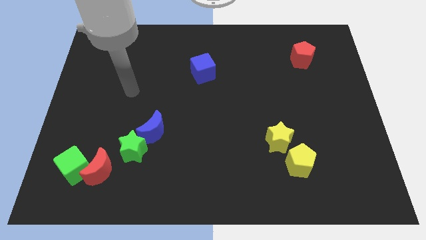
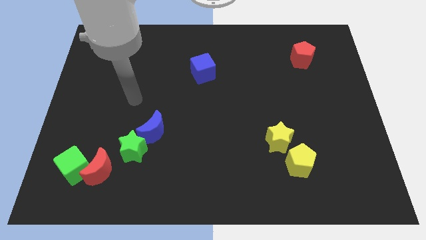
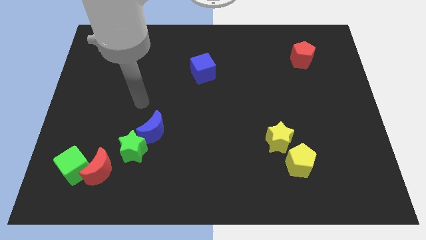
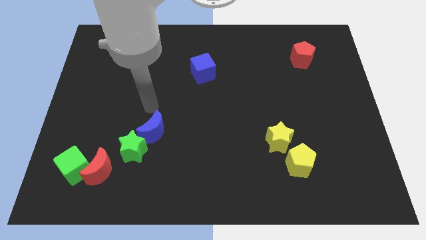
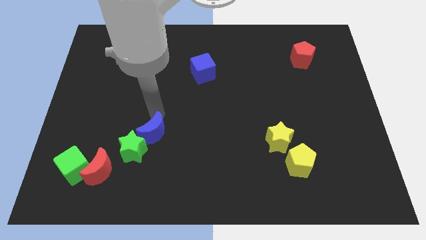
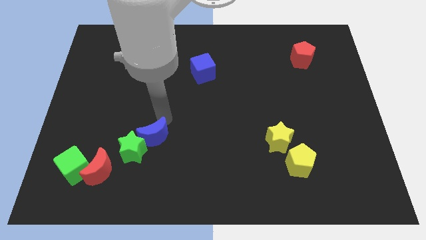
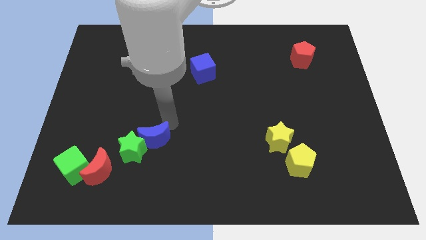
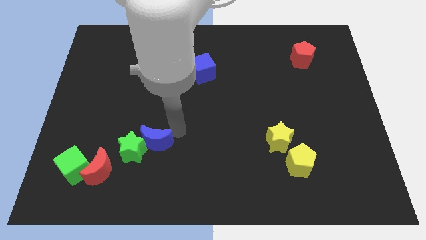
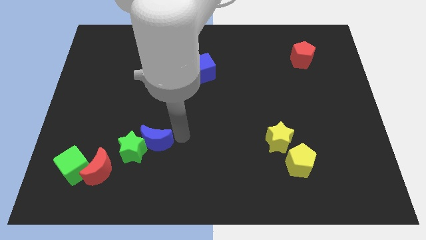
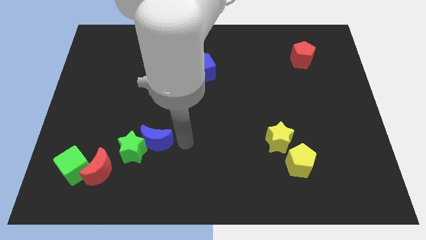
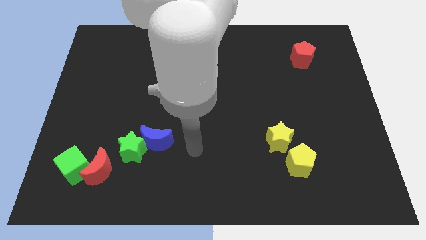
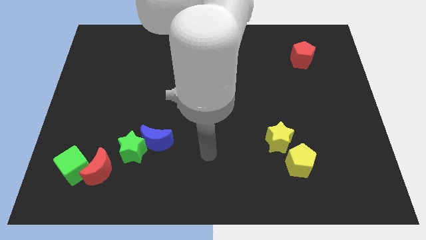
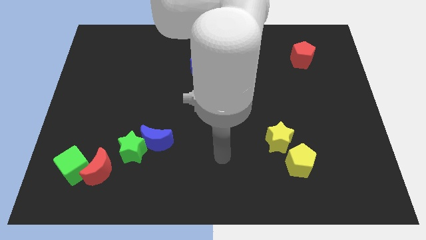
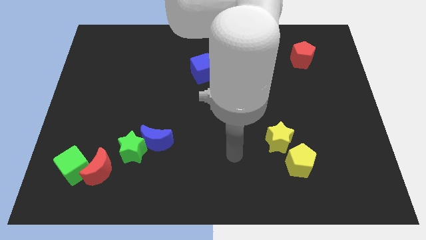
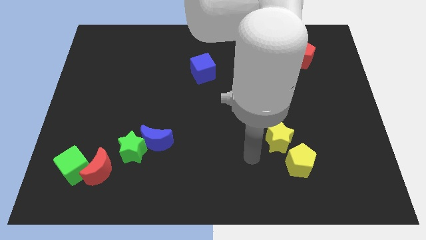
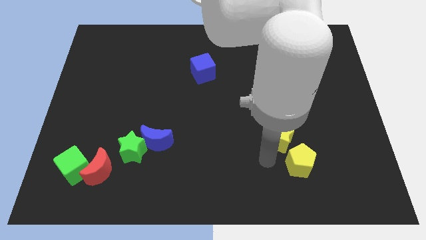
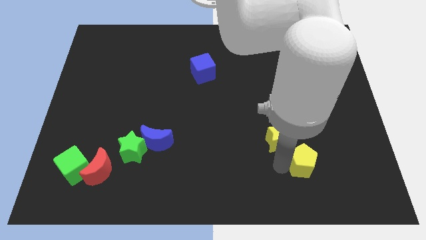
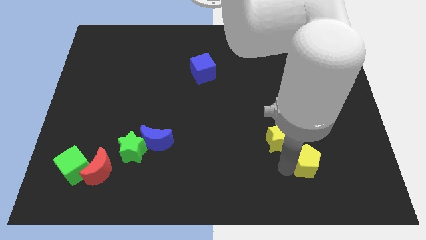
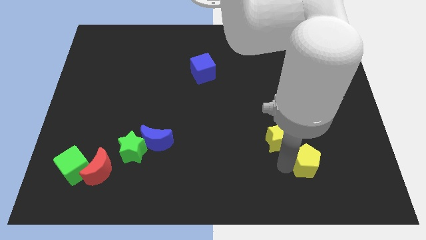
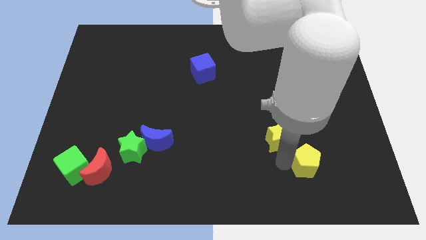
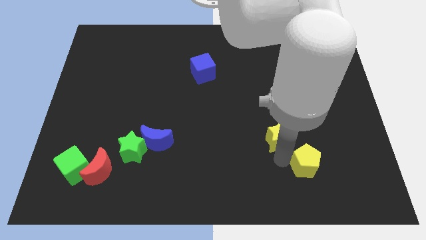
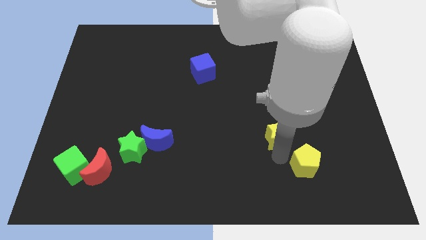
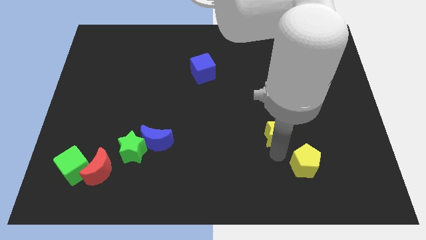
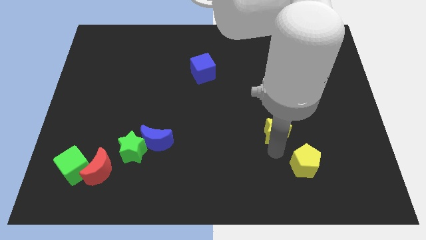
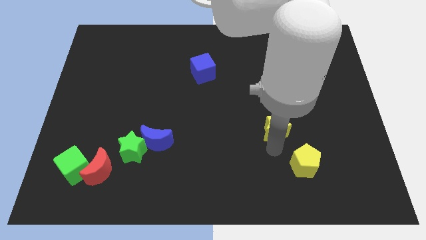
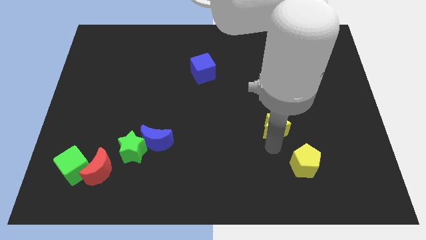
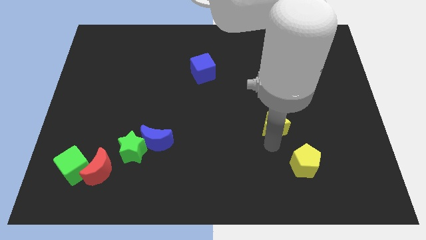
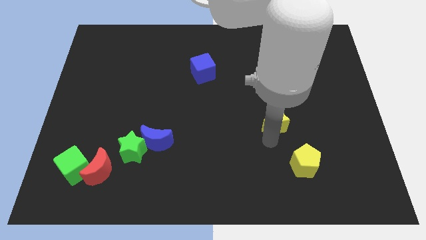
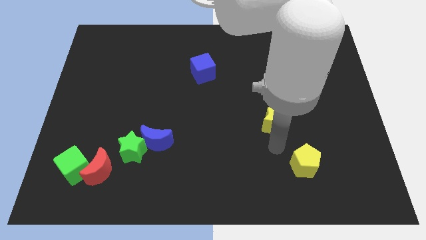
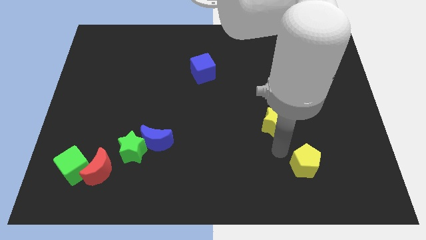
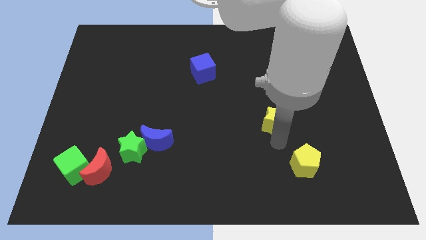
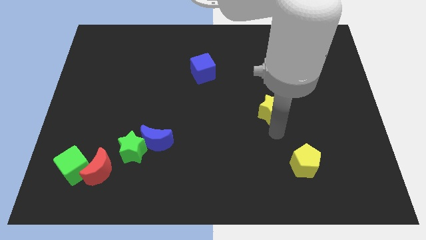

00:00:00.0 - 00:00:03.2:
slightly slide the yellow star upwards

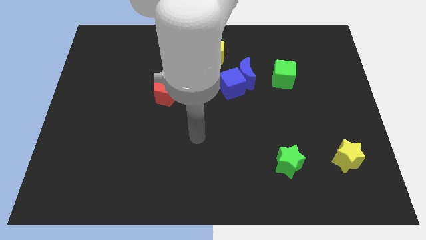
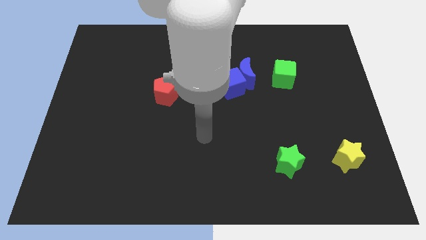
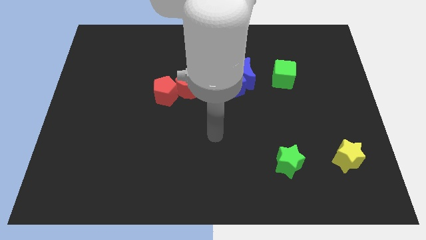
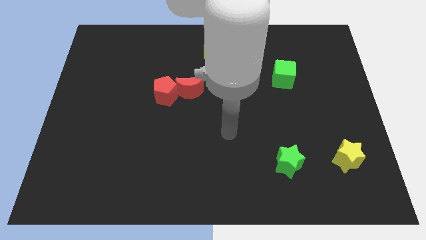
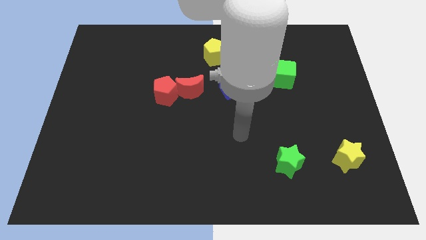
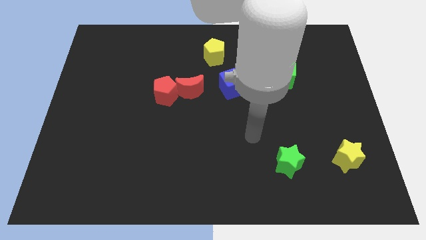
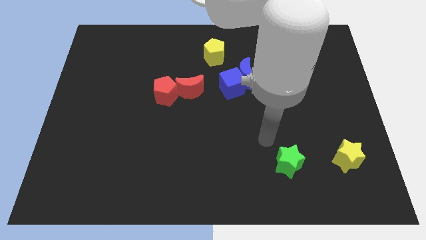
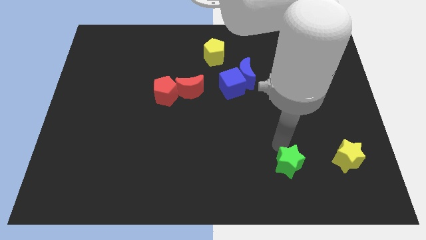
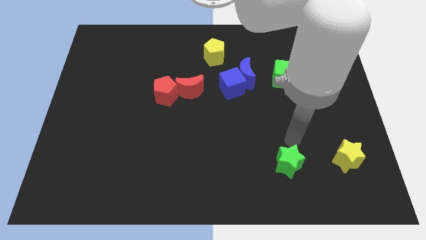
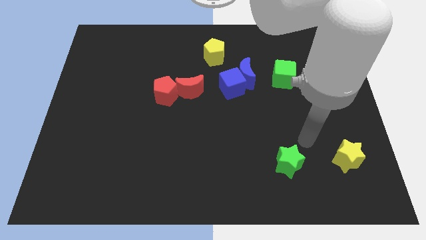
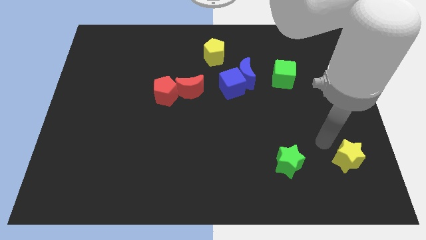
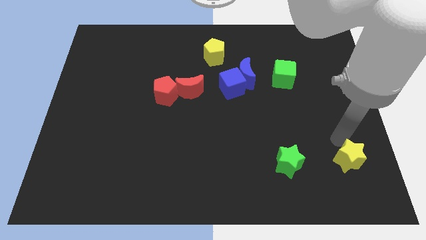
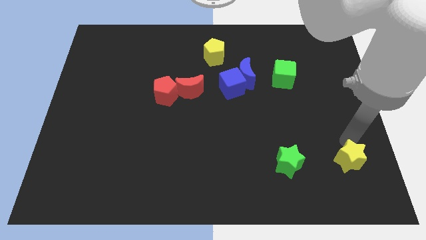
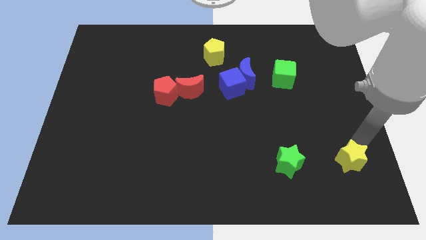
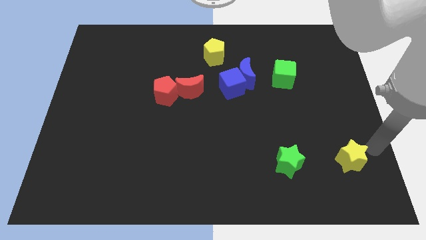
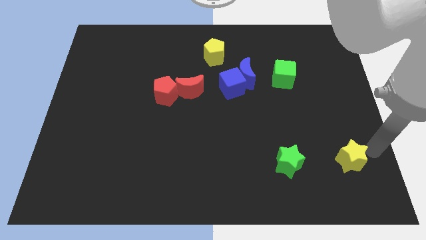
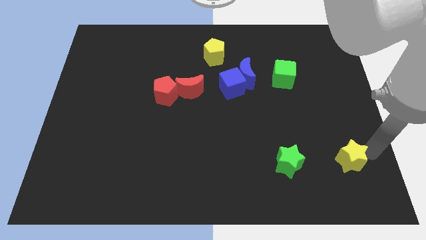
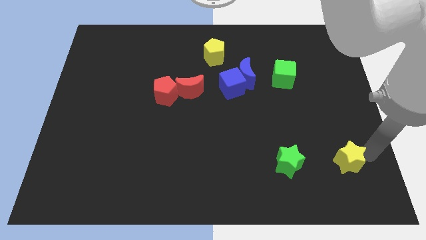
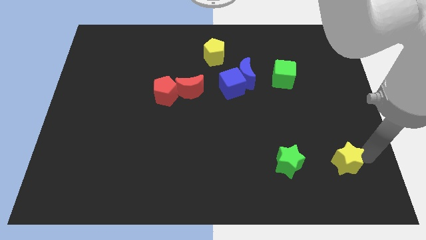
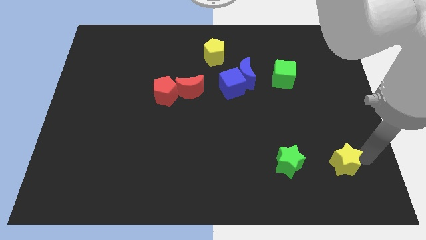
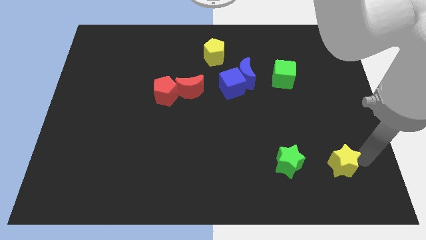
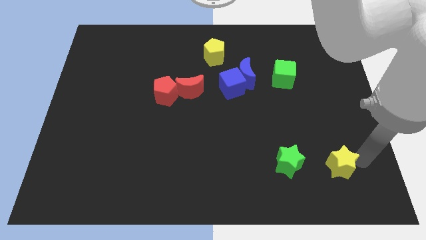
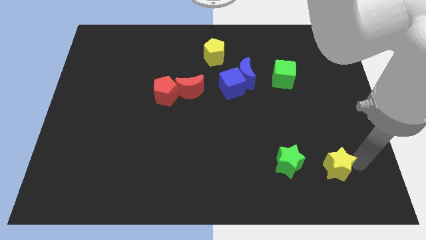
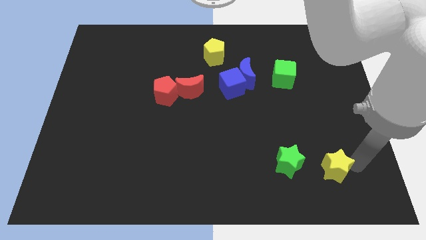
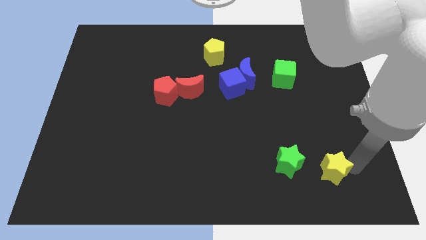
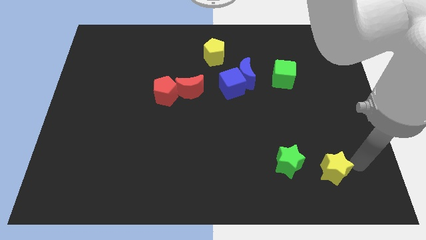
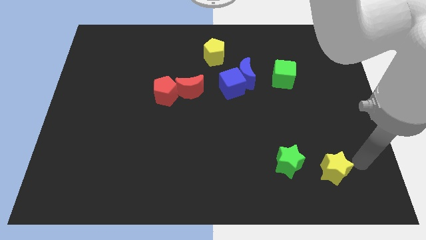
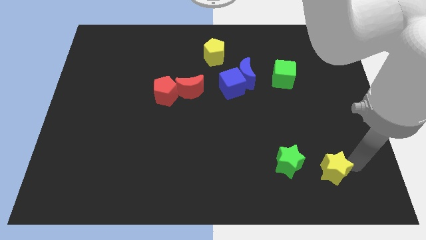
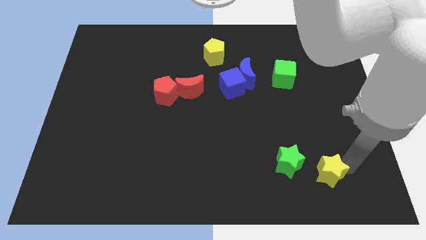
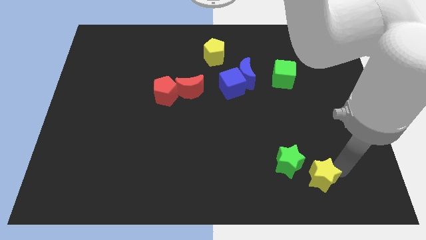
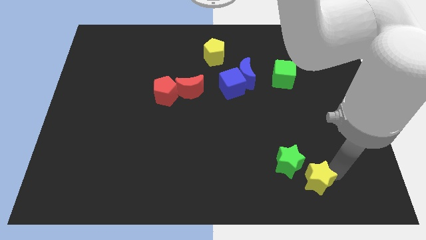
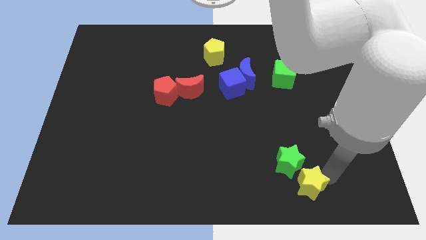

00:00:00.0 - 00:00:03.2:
move the yellow star a bit left

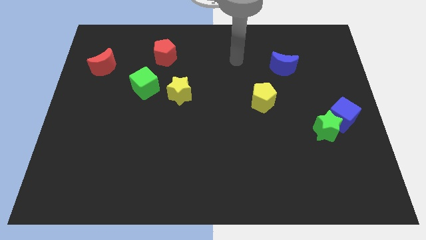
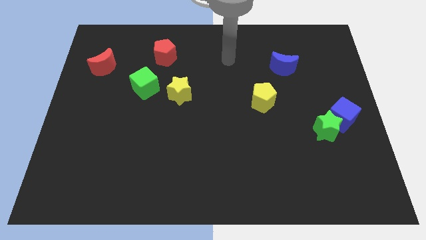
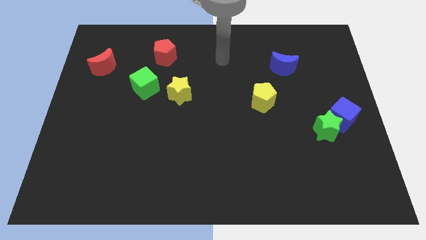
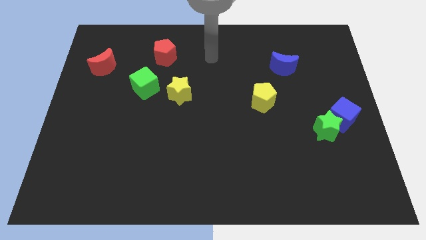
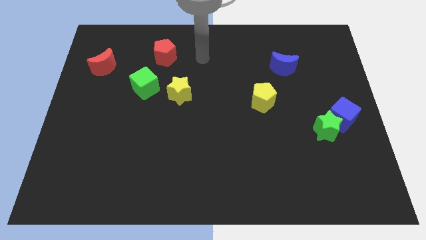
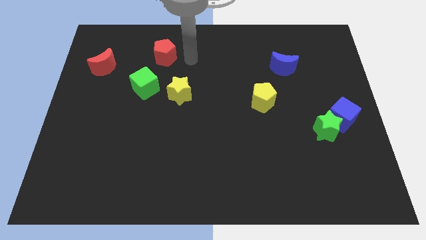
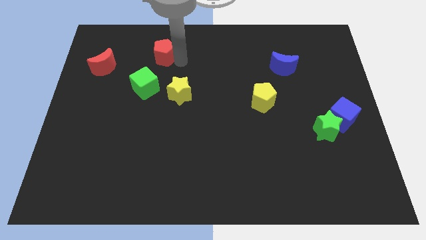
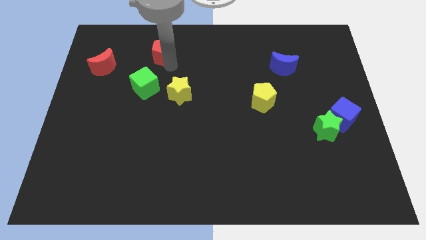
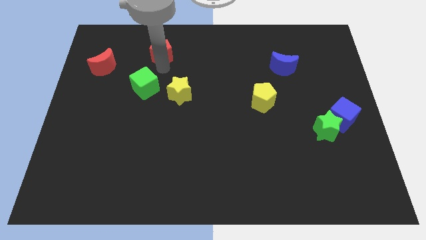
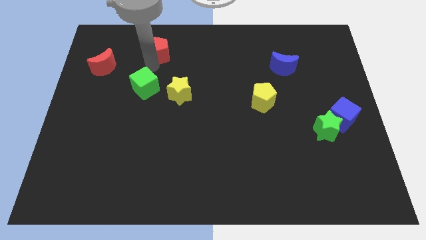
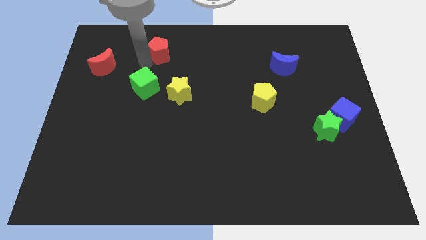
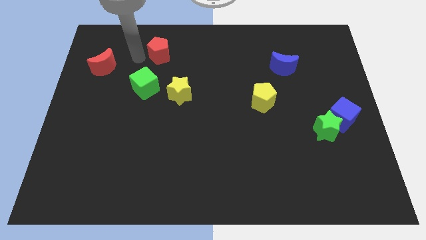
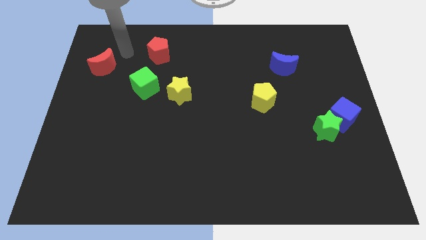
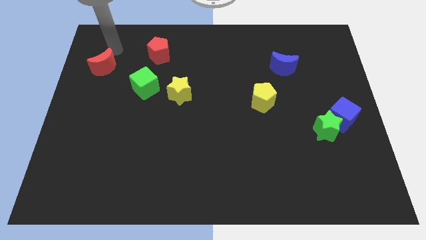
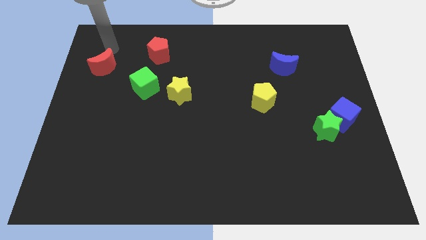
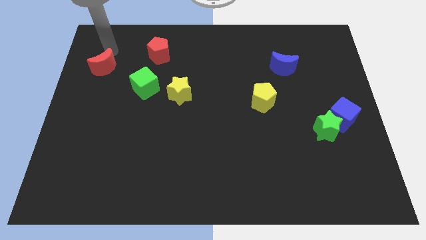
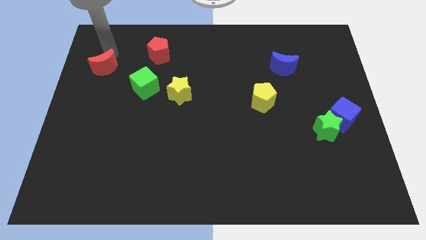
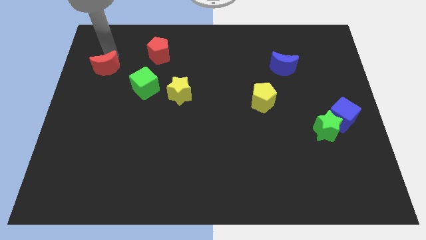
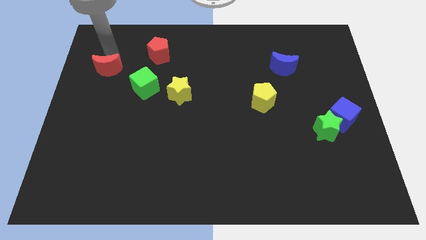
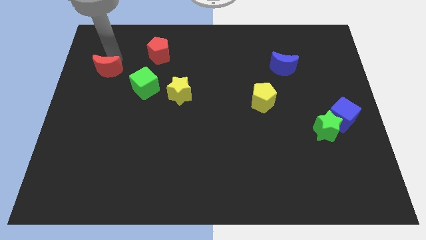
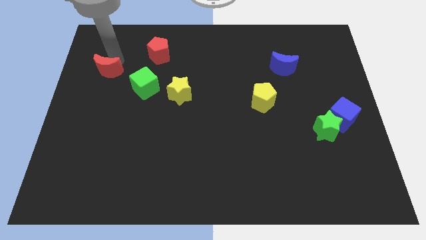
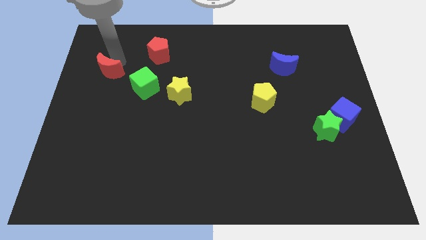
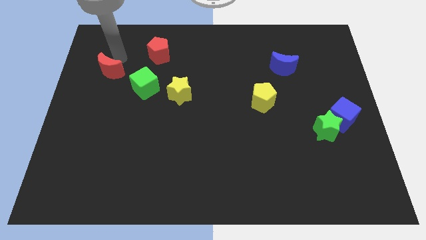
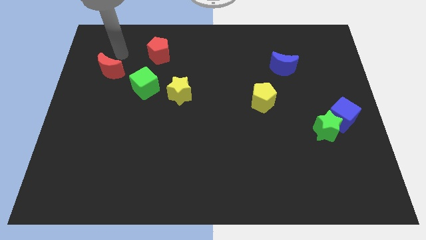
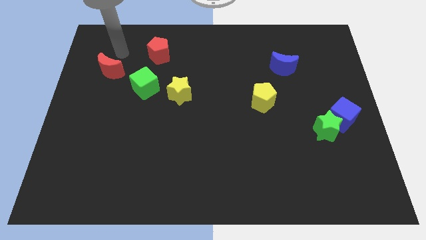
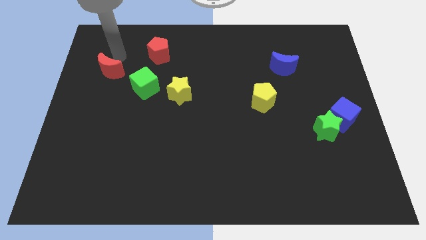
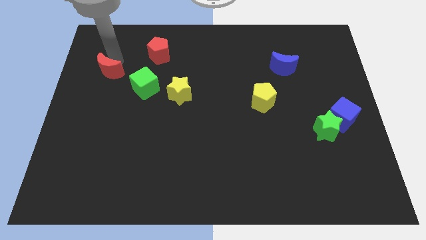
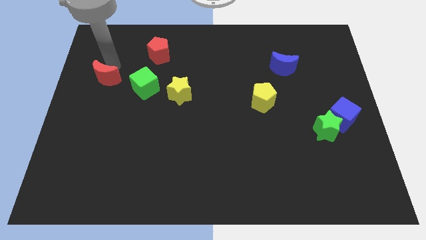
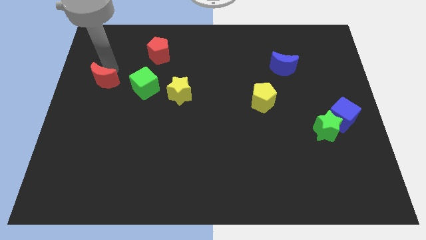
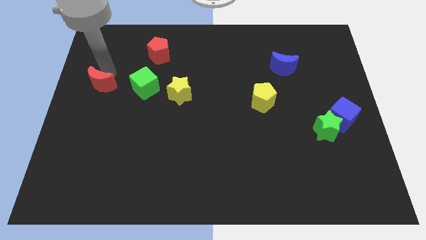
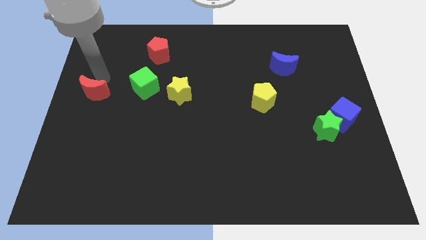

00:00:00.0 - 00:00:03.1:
move the red moon a bit downwards
